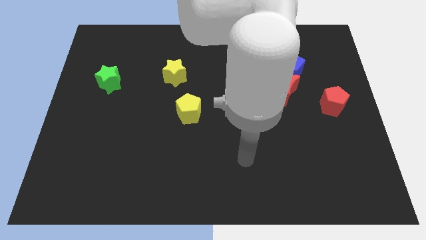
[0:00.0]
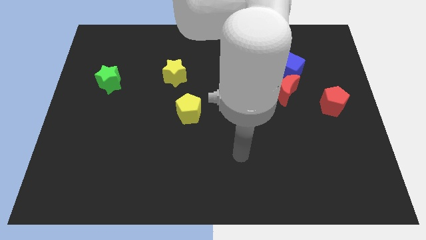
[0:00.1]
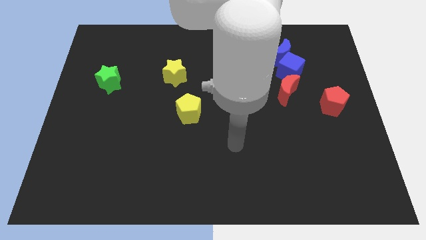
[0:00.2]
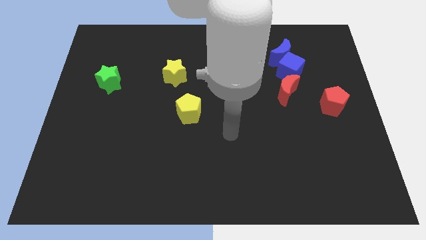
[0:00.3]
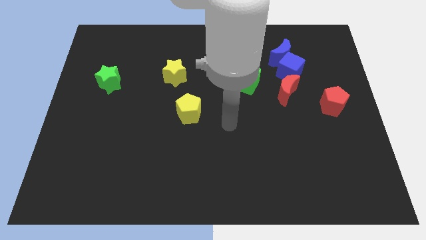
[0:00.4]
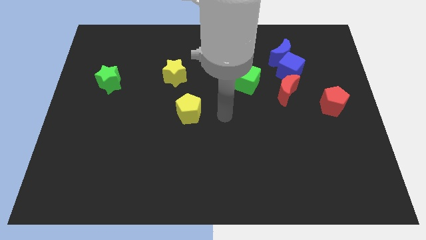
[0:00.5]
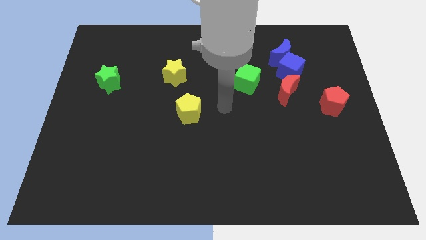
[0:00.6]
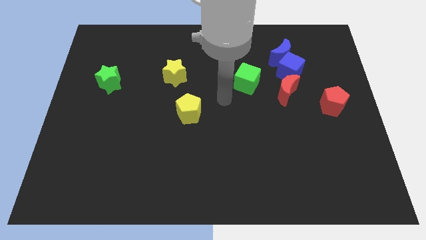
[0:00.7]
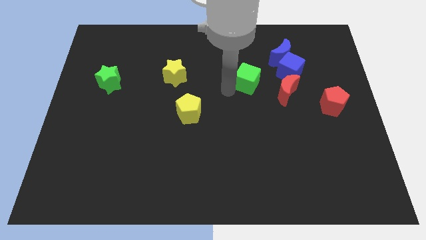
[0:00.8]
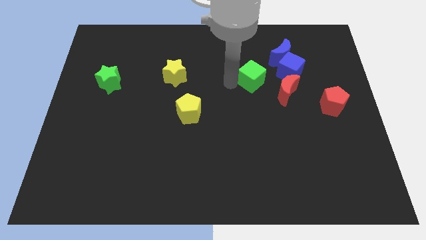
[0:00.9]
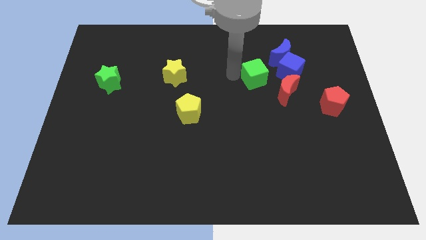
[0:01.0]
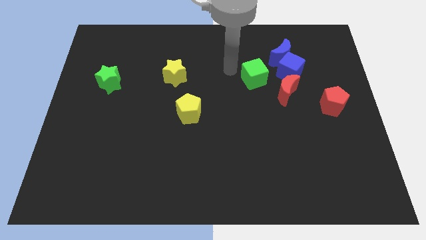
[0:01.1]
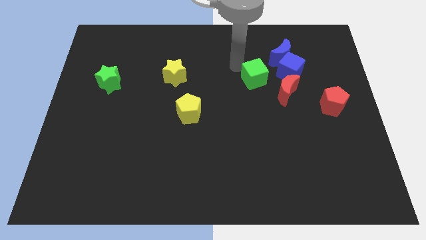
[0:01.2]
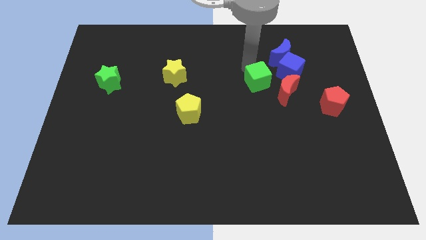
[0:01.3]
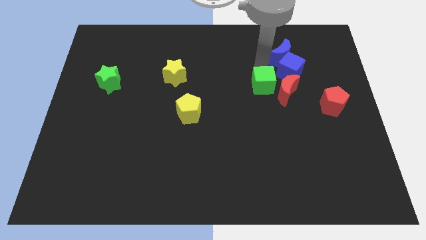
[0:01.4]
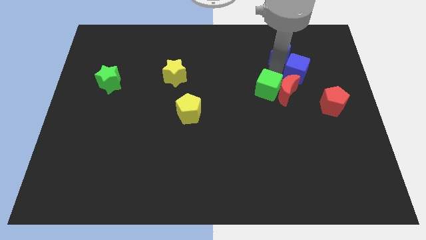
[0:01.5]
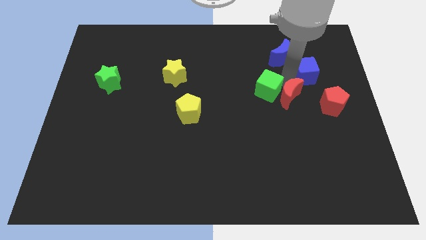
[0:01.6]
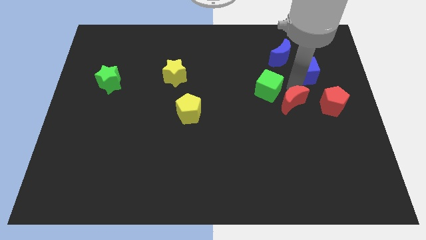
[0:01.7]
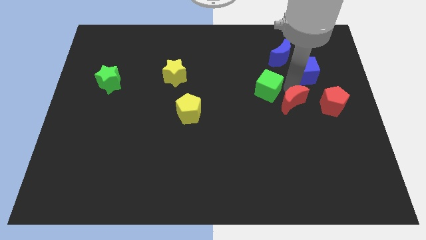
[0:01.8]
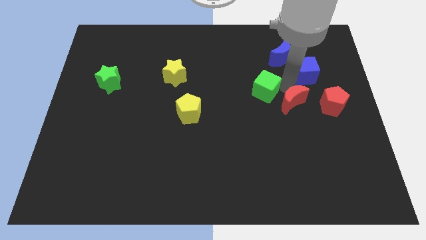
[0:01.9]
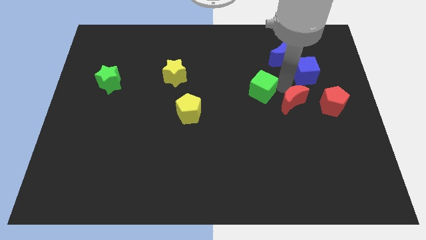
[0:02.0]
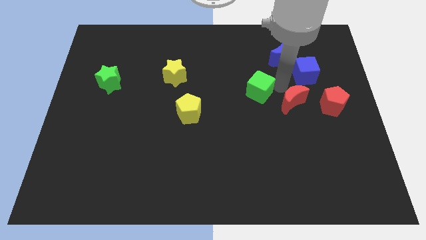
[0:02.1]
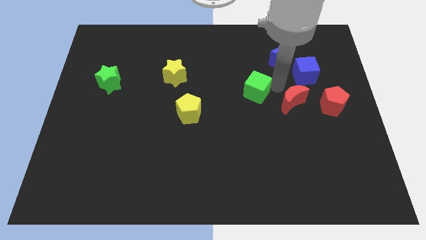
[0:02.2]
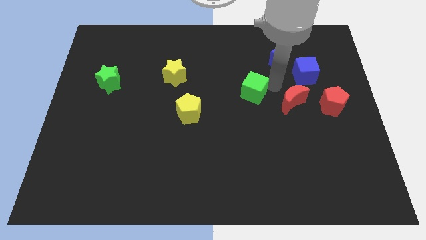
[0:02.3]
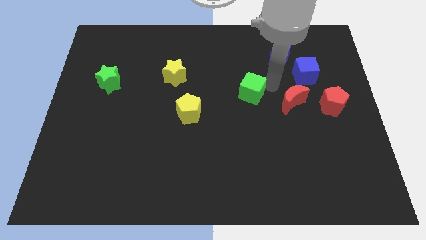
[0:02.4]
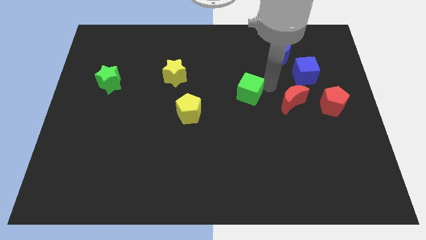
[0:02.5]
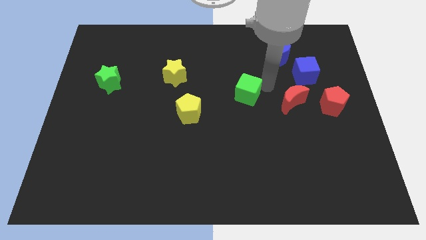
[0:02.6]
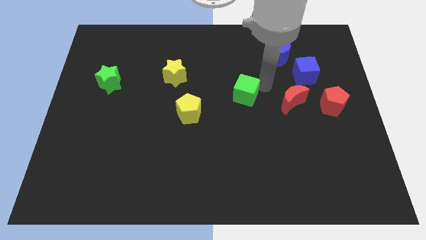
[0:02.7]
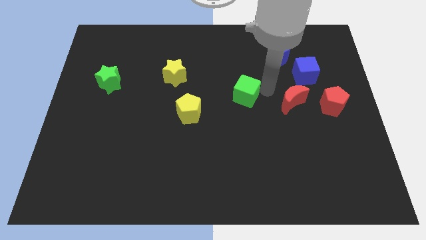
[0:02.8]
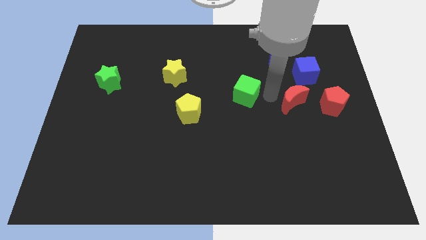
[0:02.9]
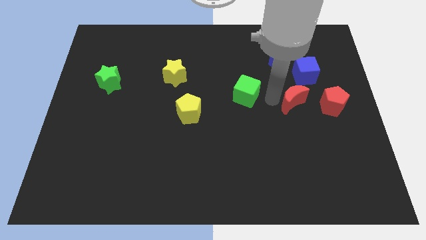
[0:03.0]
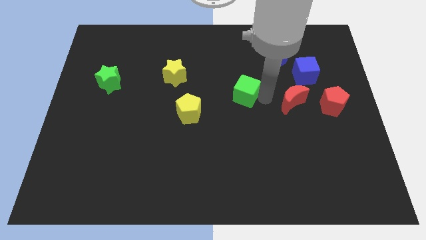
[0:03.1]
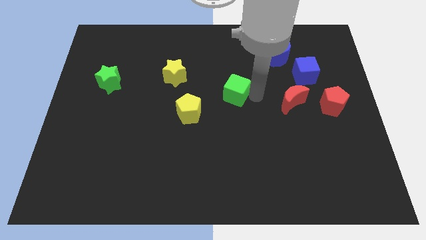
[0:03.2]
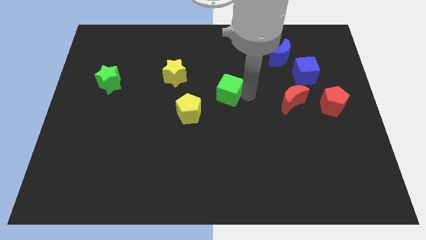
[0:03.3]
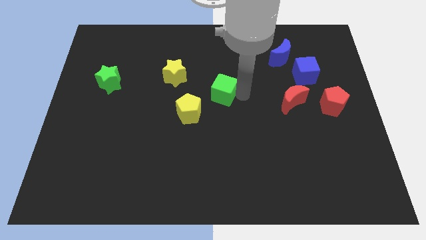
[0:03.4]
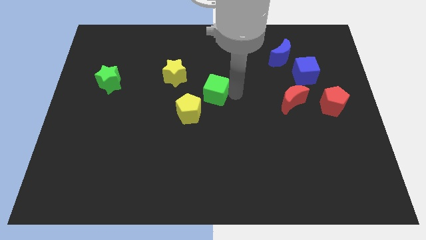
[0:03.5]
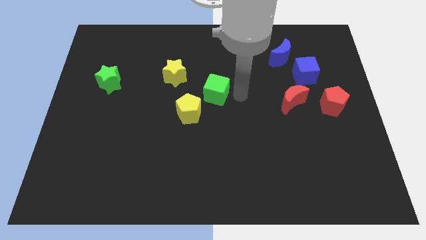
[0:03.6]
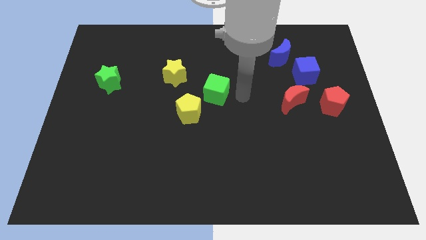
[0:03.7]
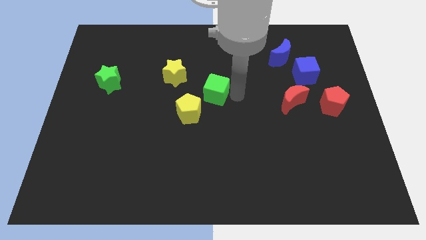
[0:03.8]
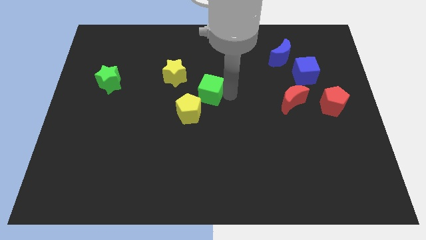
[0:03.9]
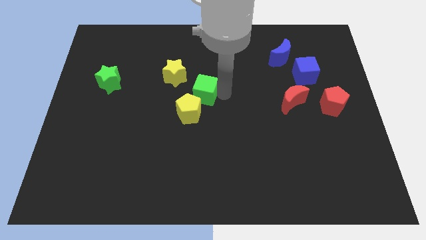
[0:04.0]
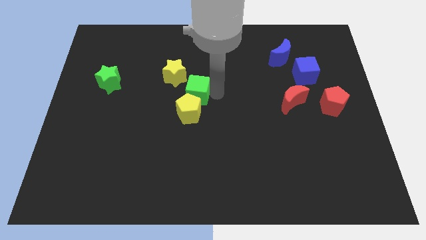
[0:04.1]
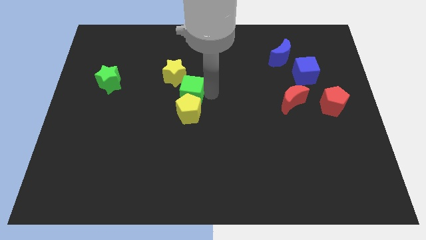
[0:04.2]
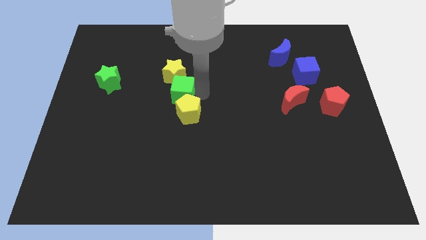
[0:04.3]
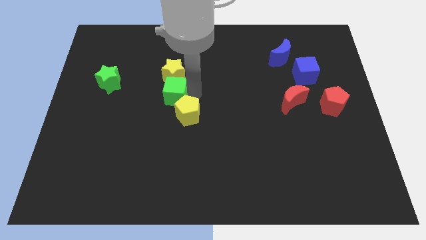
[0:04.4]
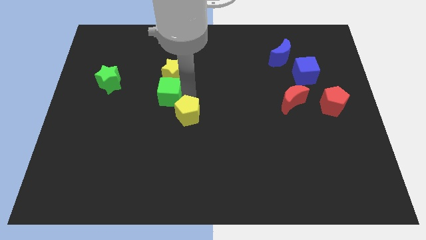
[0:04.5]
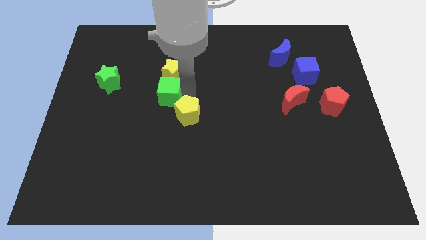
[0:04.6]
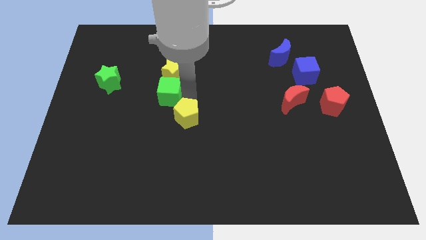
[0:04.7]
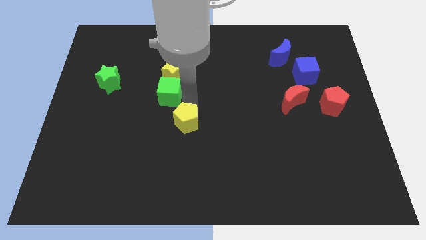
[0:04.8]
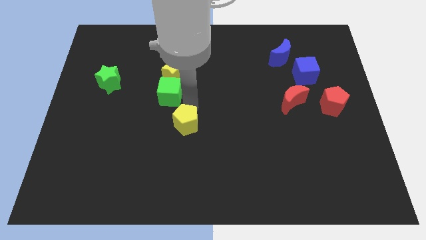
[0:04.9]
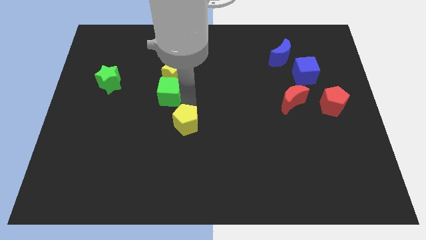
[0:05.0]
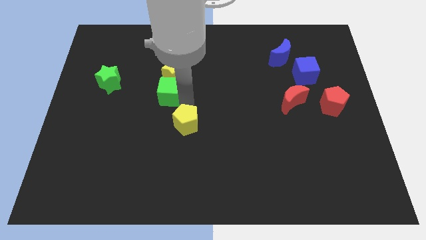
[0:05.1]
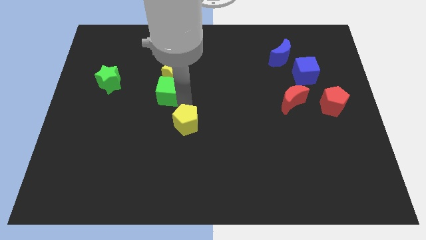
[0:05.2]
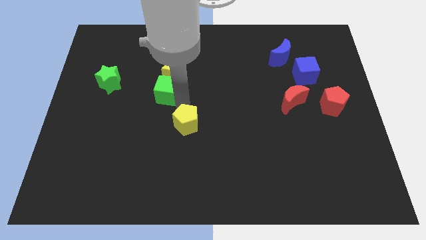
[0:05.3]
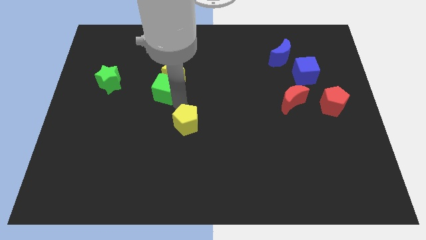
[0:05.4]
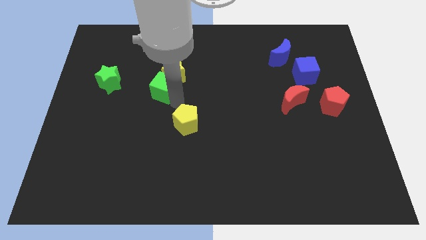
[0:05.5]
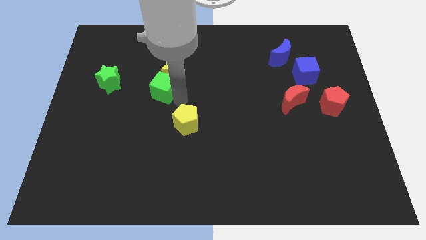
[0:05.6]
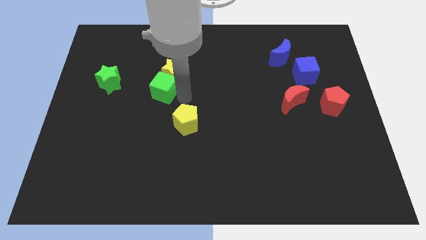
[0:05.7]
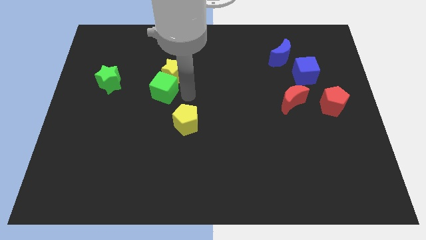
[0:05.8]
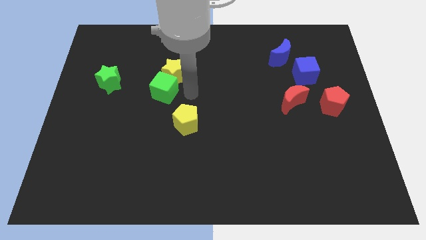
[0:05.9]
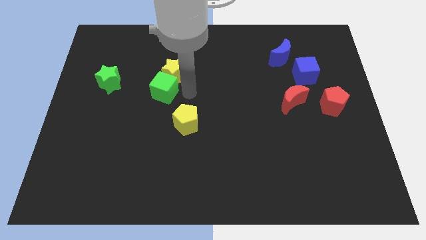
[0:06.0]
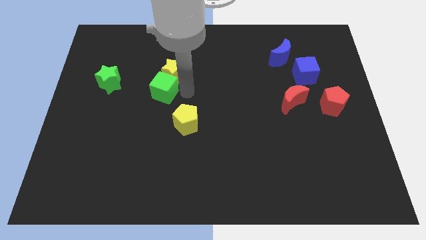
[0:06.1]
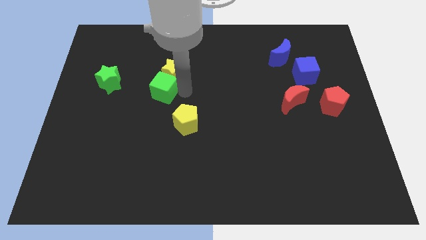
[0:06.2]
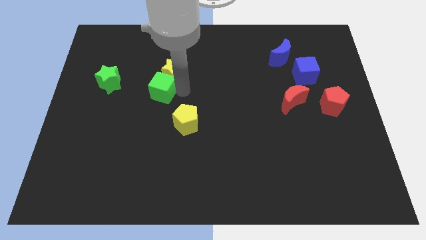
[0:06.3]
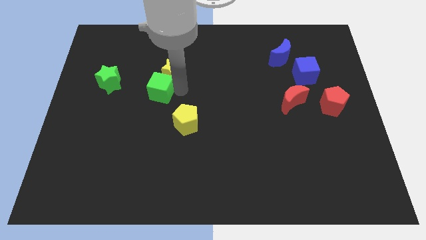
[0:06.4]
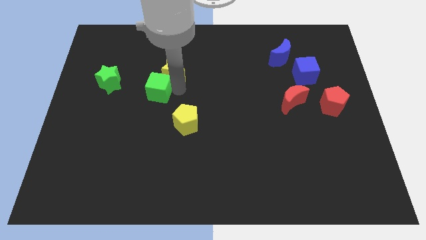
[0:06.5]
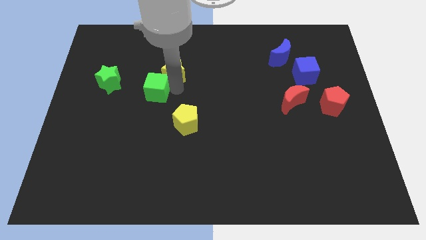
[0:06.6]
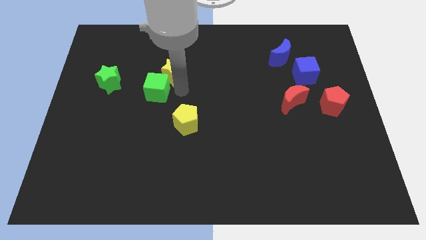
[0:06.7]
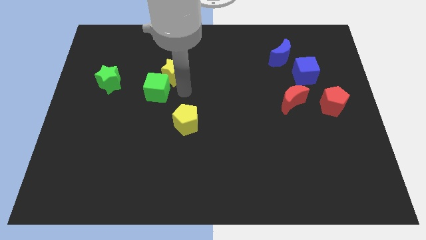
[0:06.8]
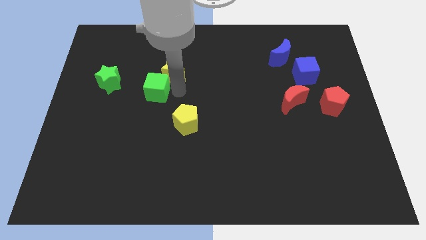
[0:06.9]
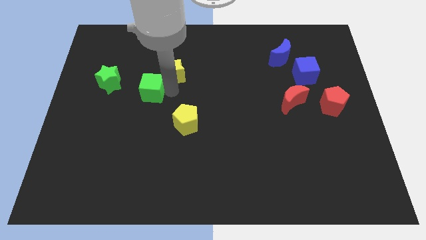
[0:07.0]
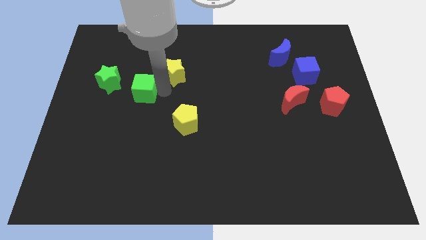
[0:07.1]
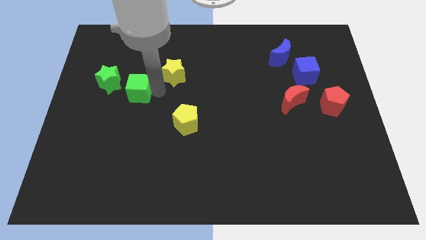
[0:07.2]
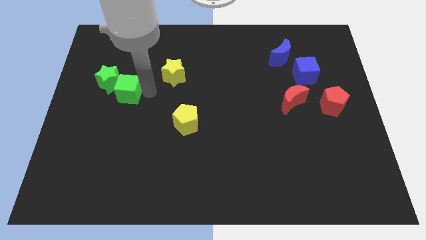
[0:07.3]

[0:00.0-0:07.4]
push the green cube towards the green star
